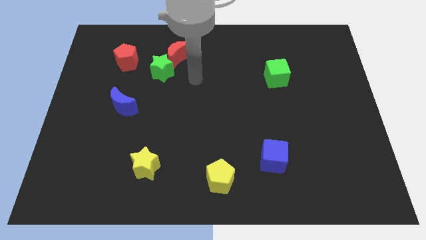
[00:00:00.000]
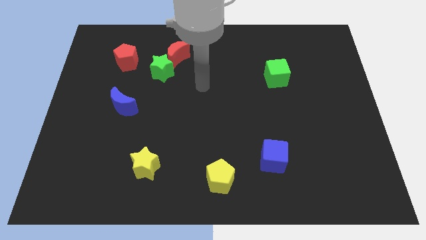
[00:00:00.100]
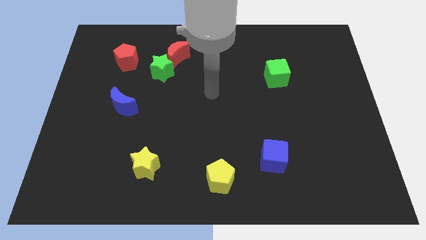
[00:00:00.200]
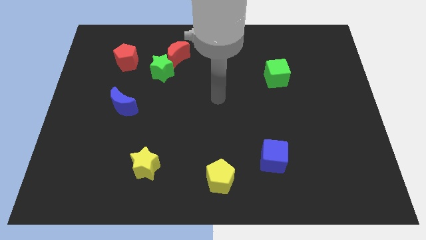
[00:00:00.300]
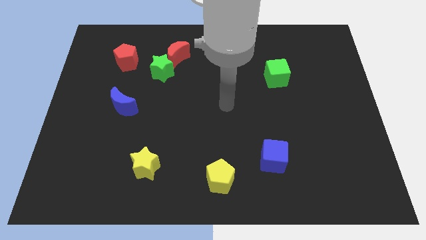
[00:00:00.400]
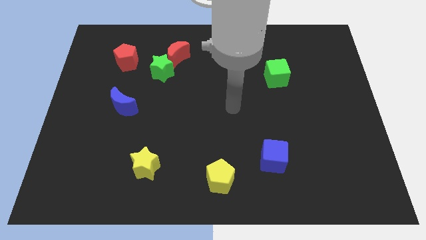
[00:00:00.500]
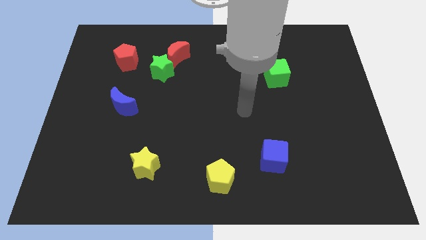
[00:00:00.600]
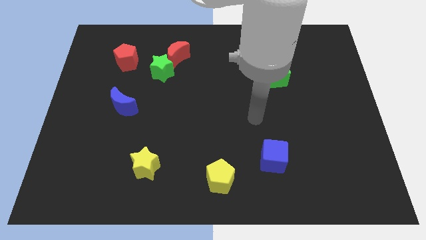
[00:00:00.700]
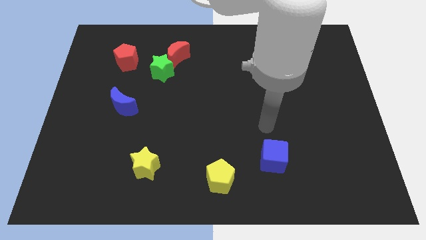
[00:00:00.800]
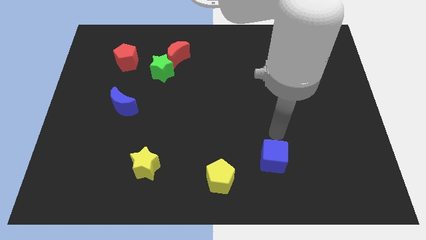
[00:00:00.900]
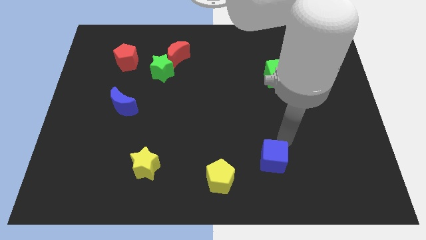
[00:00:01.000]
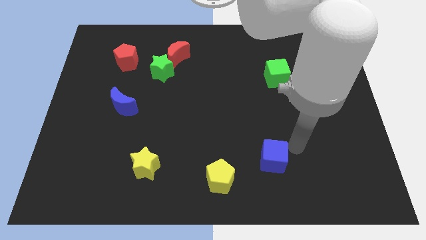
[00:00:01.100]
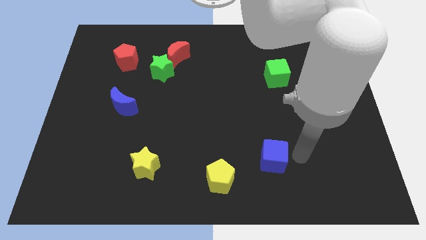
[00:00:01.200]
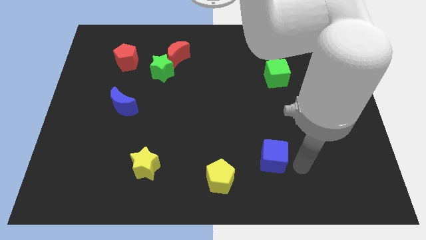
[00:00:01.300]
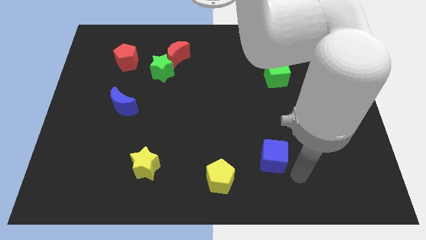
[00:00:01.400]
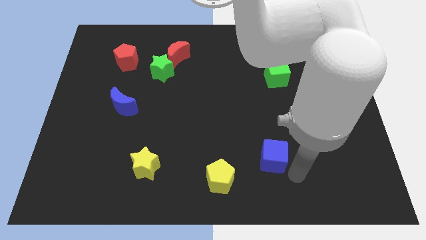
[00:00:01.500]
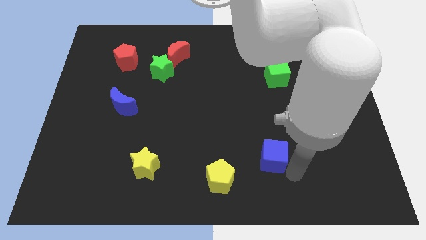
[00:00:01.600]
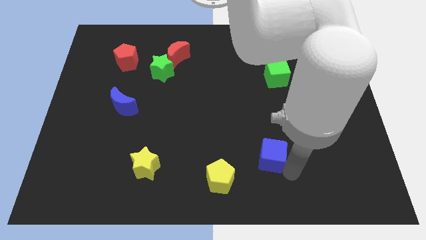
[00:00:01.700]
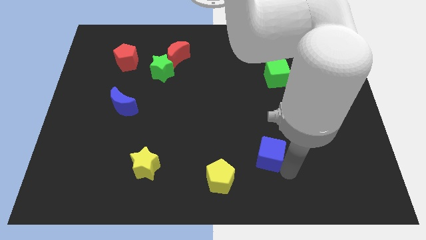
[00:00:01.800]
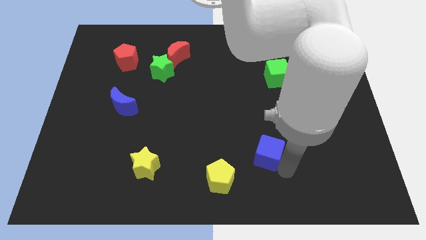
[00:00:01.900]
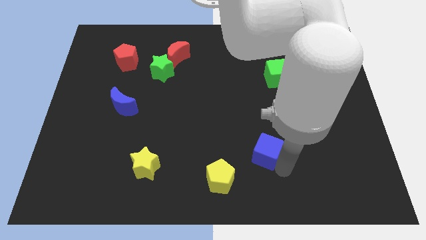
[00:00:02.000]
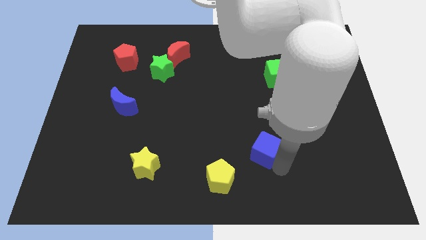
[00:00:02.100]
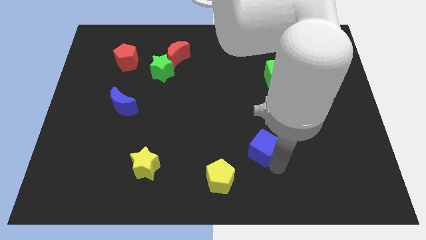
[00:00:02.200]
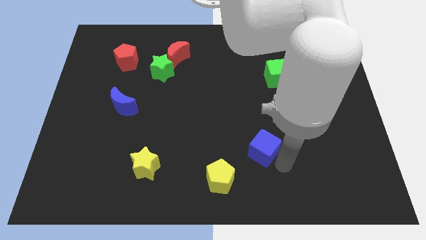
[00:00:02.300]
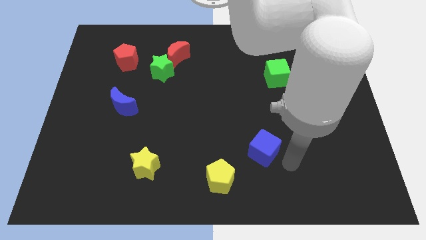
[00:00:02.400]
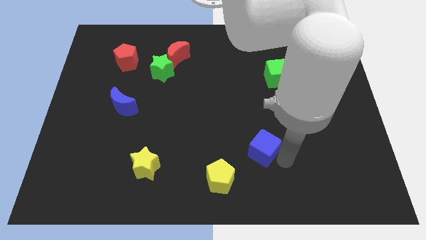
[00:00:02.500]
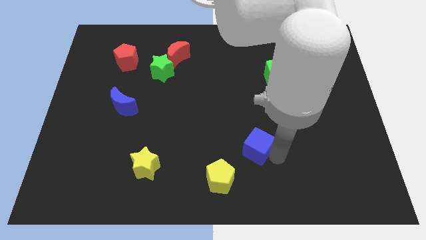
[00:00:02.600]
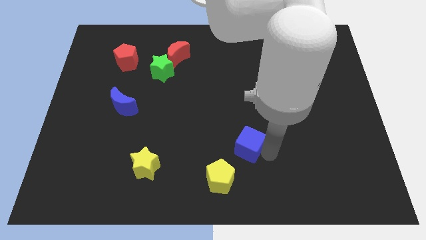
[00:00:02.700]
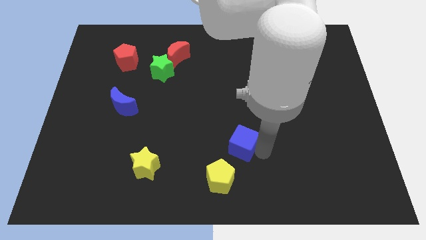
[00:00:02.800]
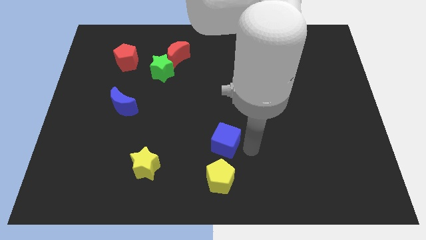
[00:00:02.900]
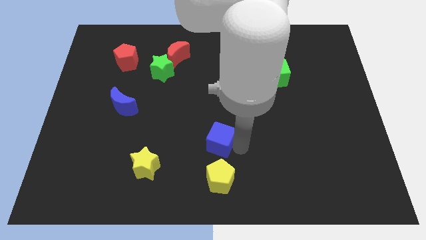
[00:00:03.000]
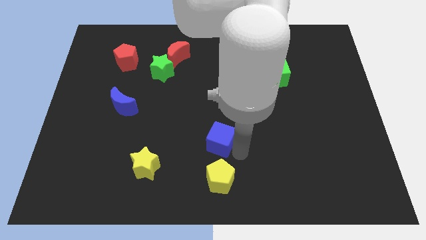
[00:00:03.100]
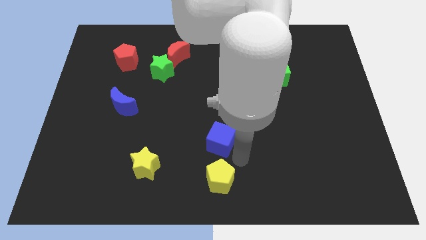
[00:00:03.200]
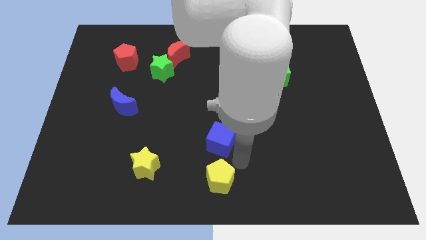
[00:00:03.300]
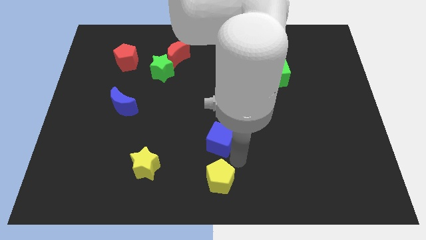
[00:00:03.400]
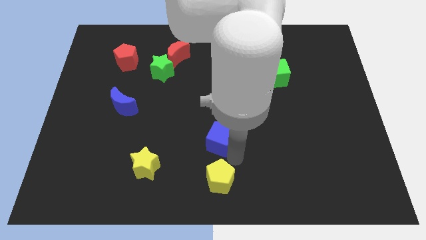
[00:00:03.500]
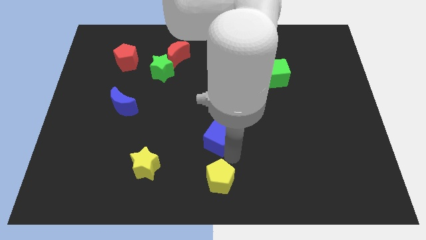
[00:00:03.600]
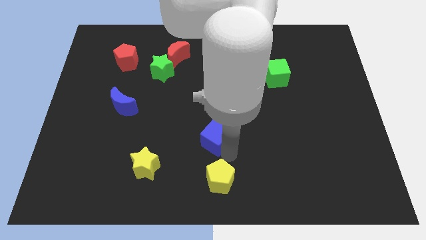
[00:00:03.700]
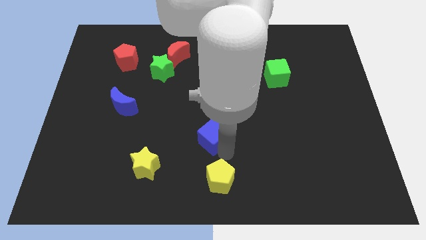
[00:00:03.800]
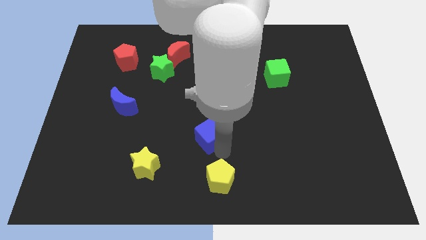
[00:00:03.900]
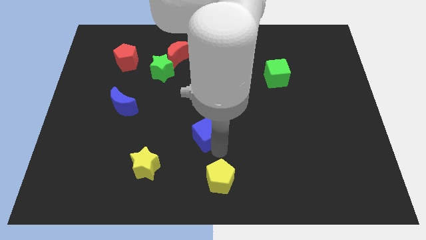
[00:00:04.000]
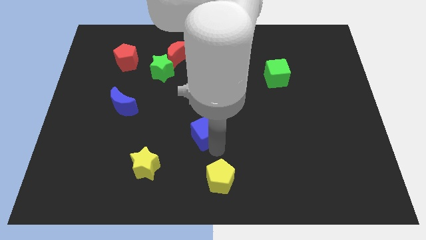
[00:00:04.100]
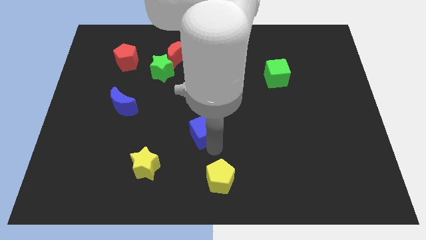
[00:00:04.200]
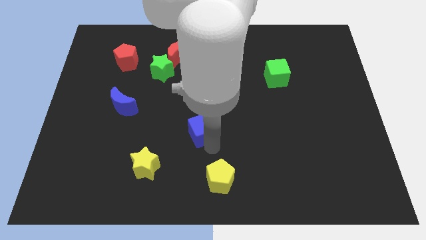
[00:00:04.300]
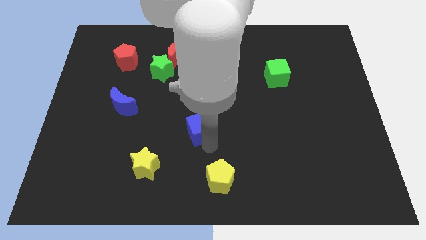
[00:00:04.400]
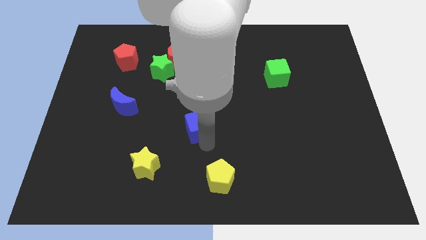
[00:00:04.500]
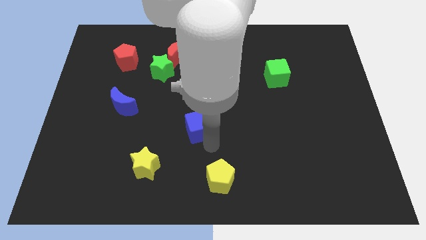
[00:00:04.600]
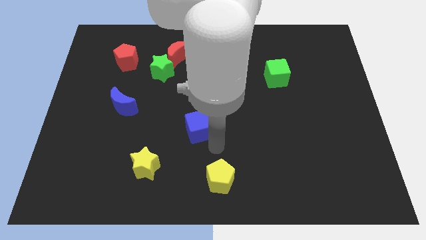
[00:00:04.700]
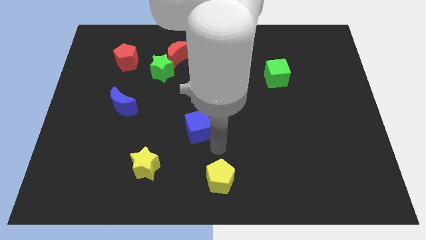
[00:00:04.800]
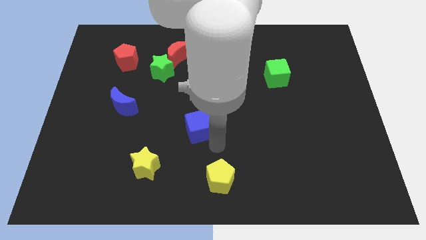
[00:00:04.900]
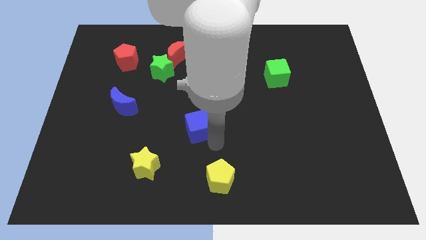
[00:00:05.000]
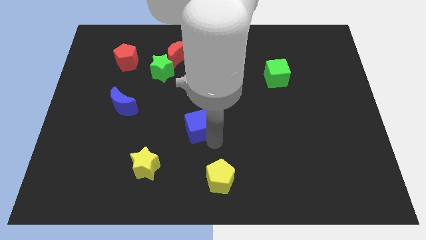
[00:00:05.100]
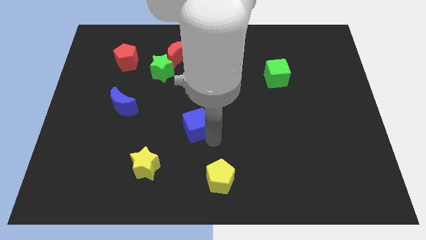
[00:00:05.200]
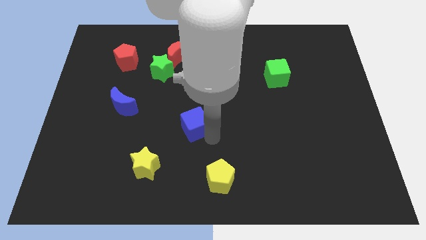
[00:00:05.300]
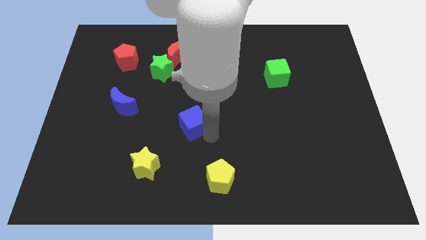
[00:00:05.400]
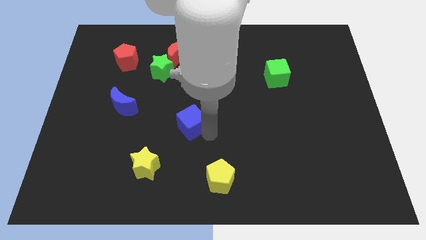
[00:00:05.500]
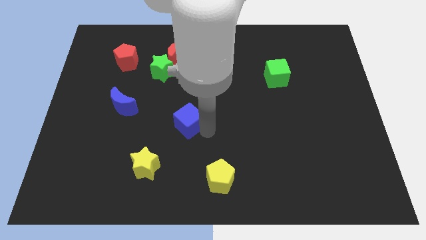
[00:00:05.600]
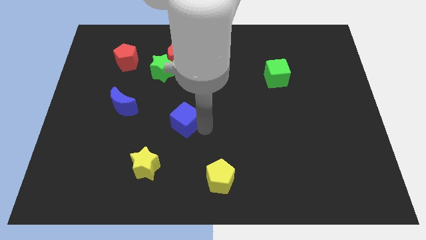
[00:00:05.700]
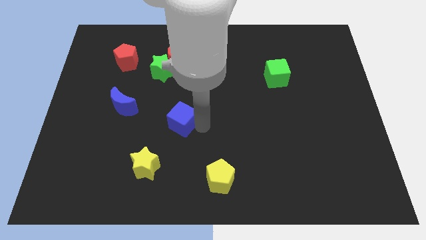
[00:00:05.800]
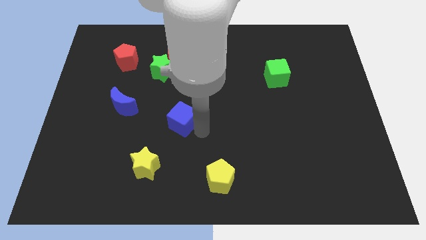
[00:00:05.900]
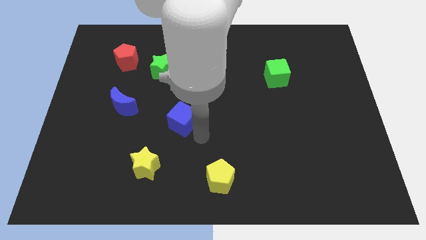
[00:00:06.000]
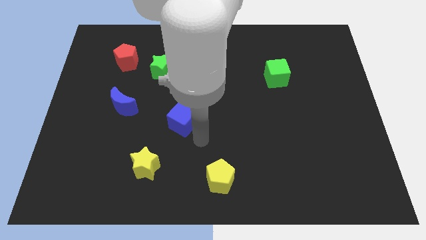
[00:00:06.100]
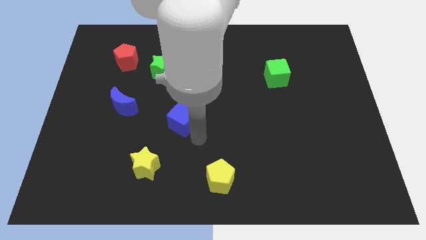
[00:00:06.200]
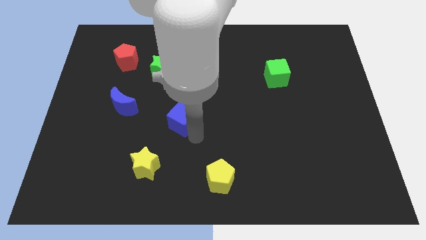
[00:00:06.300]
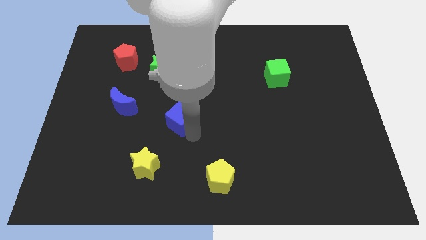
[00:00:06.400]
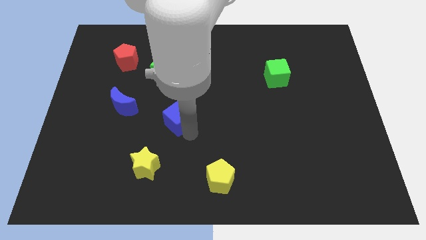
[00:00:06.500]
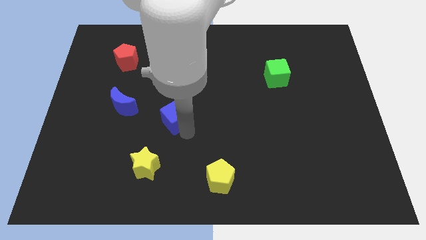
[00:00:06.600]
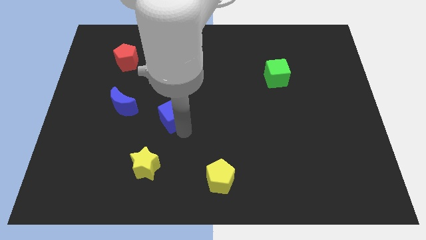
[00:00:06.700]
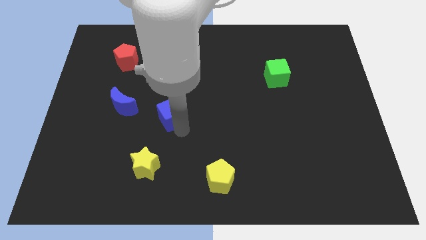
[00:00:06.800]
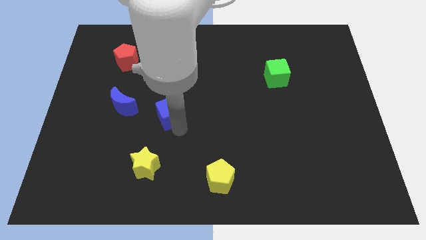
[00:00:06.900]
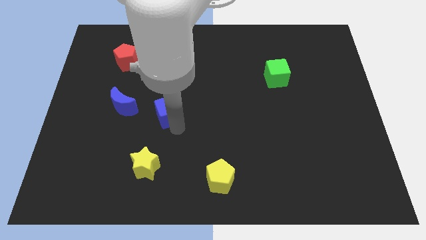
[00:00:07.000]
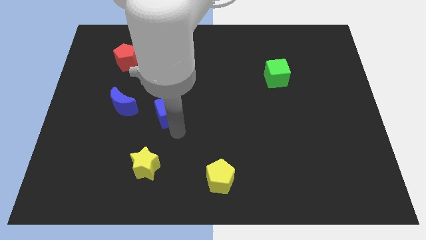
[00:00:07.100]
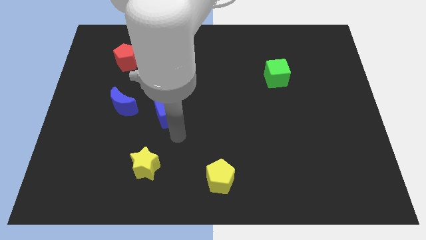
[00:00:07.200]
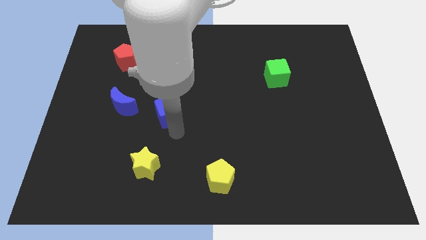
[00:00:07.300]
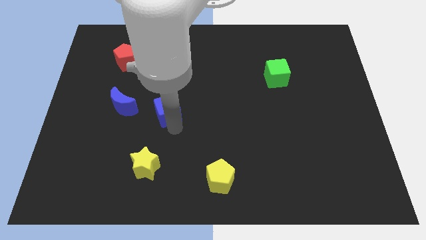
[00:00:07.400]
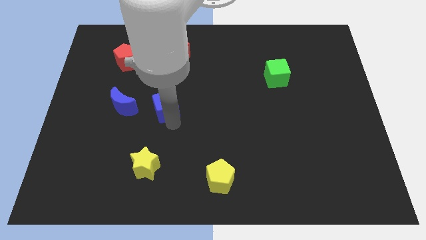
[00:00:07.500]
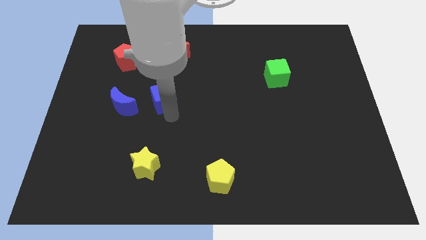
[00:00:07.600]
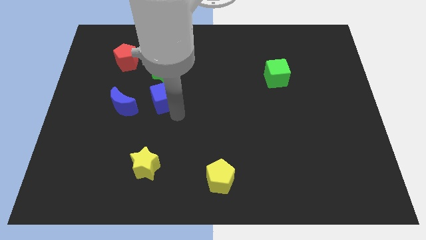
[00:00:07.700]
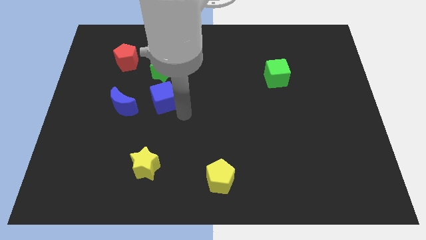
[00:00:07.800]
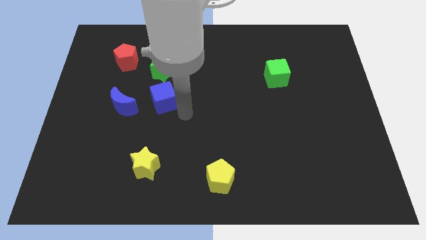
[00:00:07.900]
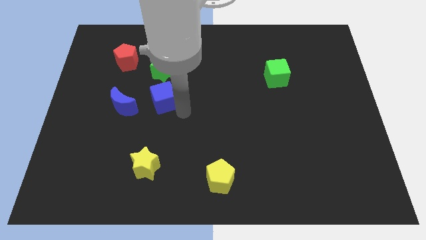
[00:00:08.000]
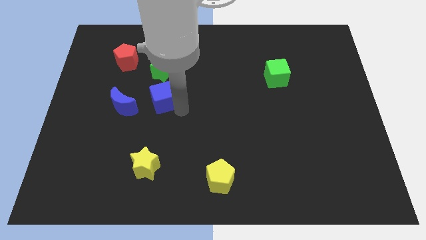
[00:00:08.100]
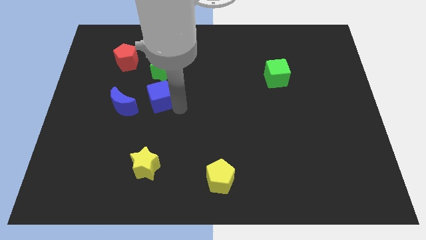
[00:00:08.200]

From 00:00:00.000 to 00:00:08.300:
slide the blue cube to the top right of the blue moon
